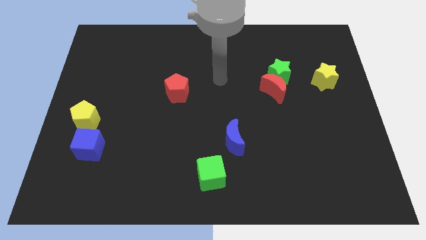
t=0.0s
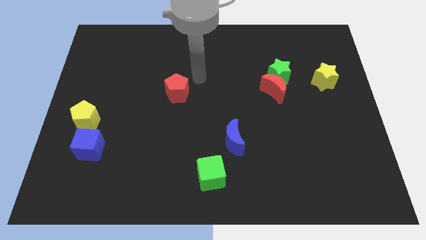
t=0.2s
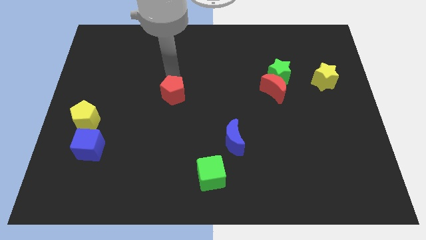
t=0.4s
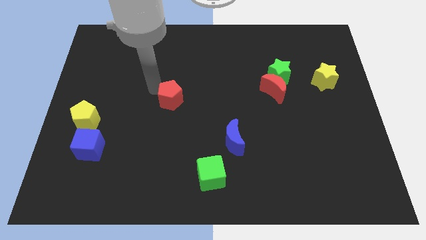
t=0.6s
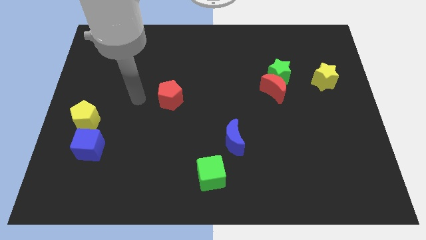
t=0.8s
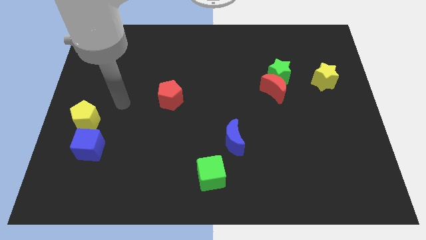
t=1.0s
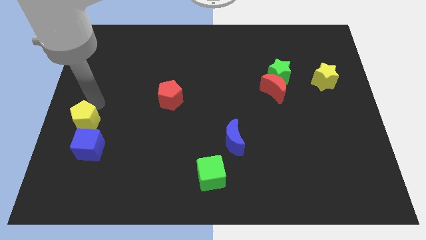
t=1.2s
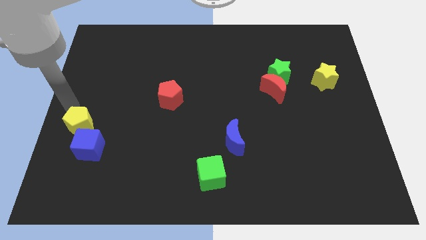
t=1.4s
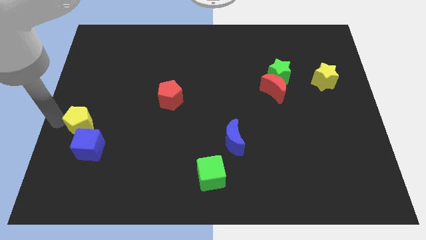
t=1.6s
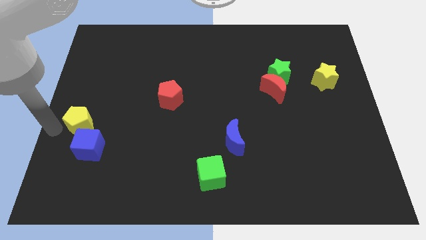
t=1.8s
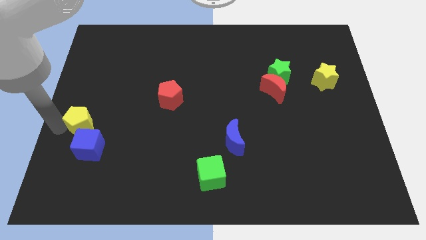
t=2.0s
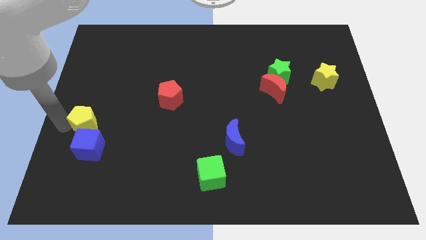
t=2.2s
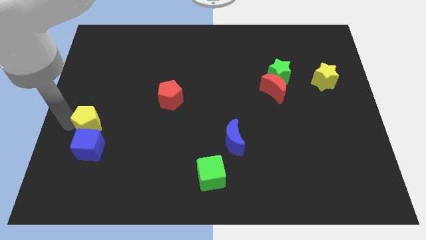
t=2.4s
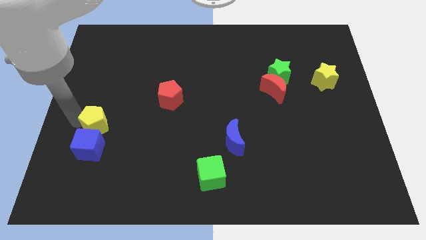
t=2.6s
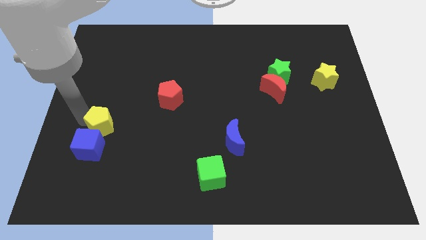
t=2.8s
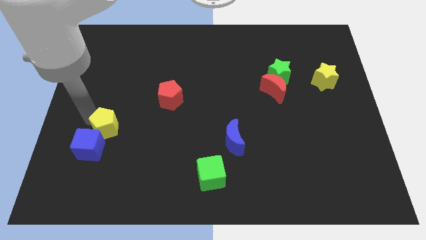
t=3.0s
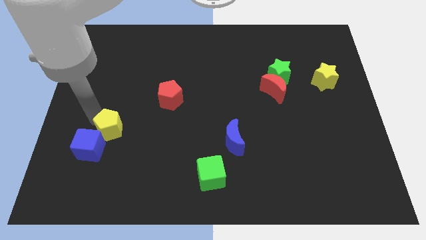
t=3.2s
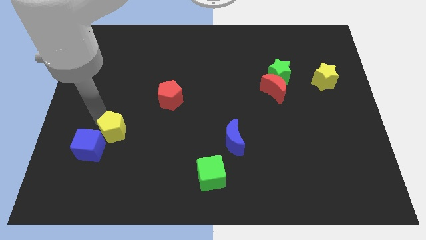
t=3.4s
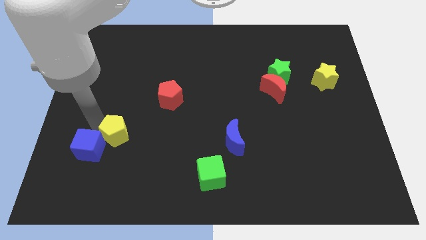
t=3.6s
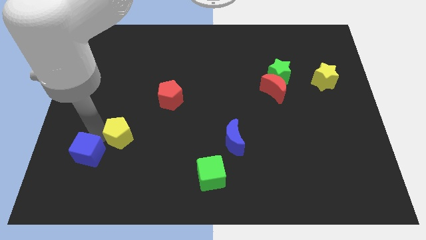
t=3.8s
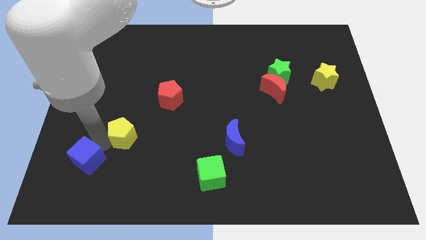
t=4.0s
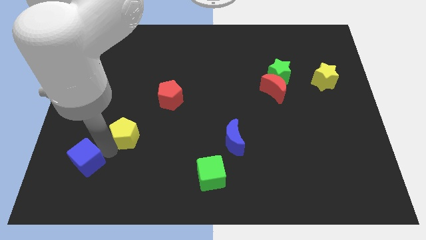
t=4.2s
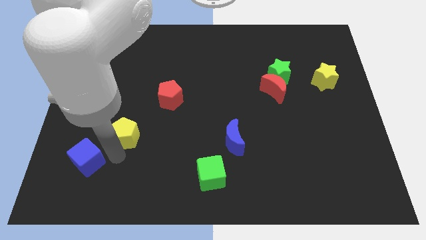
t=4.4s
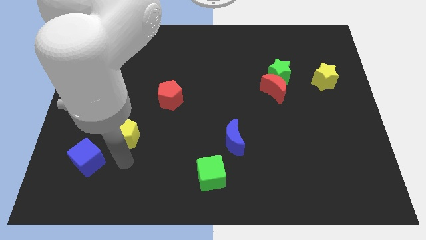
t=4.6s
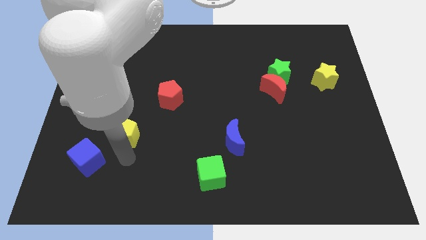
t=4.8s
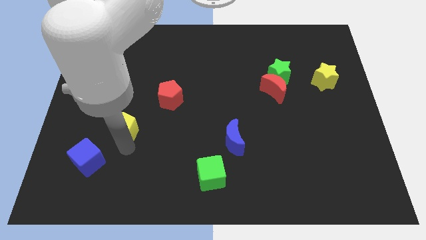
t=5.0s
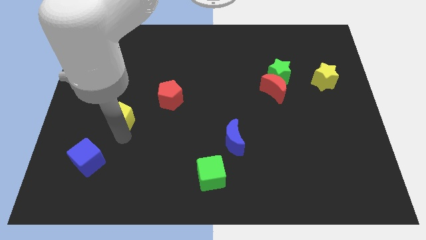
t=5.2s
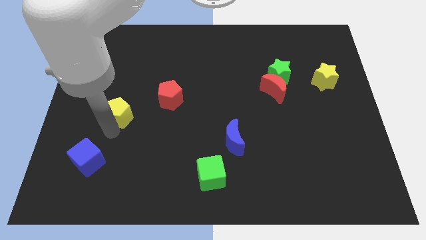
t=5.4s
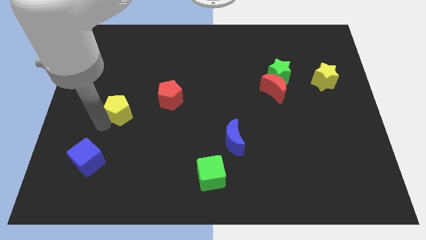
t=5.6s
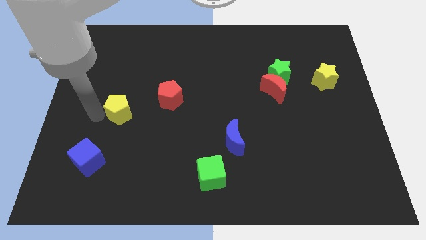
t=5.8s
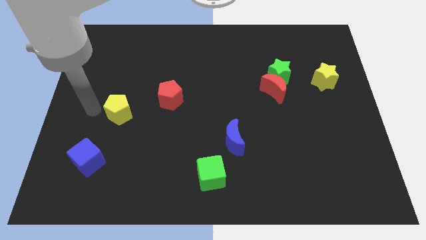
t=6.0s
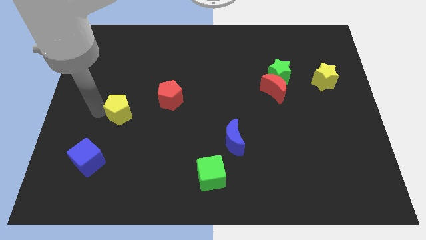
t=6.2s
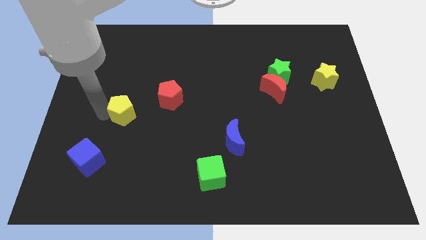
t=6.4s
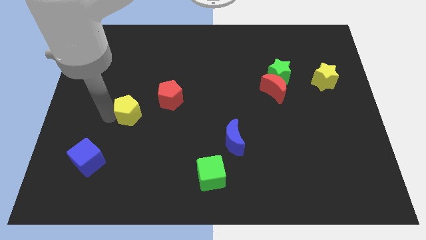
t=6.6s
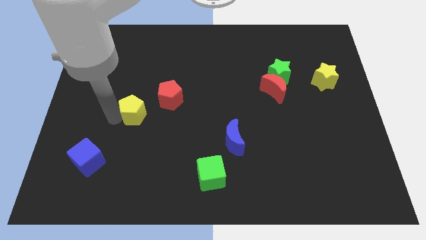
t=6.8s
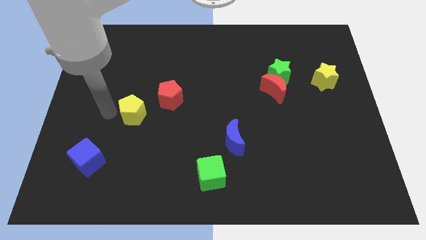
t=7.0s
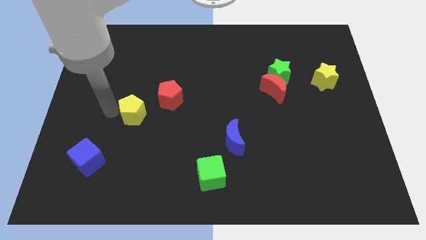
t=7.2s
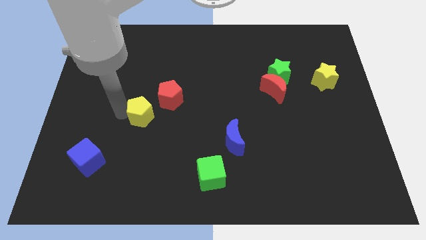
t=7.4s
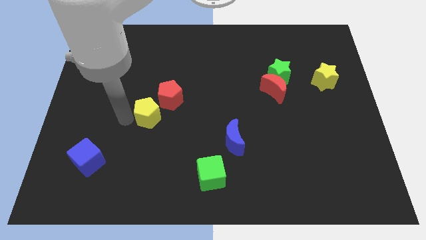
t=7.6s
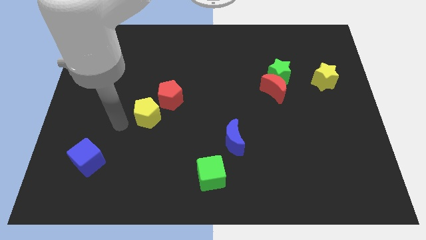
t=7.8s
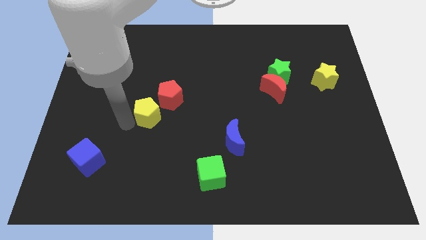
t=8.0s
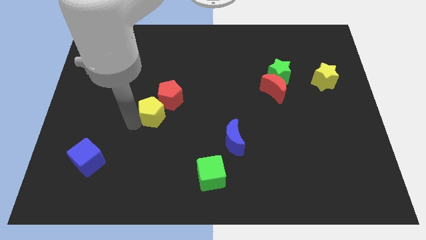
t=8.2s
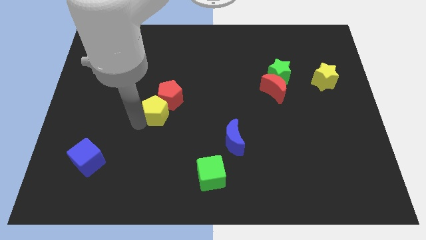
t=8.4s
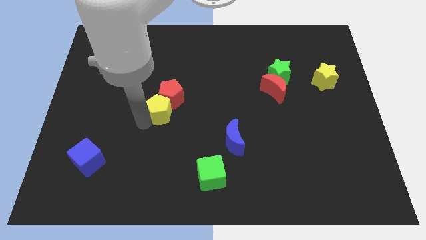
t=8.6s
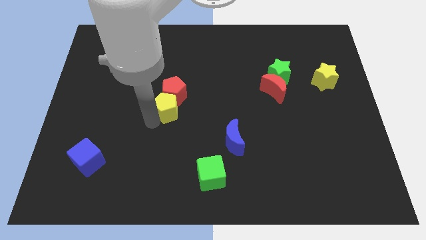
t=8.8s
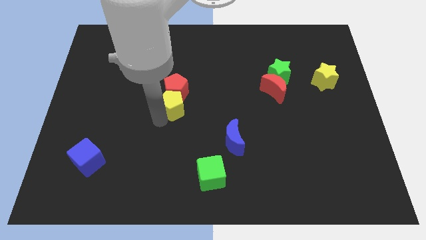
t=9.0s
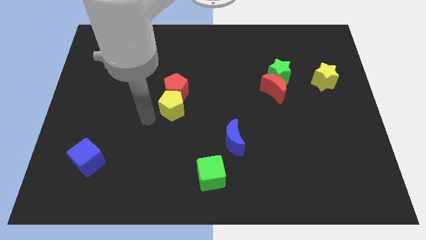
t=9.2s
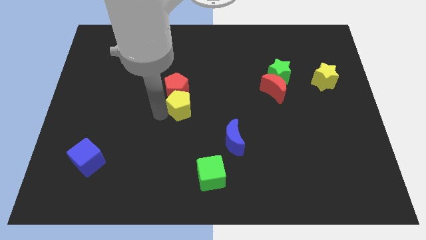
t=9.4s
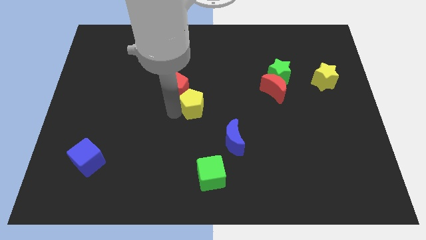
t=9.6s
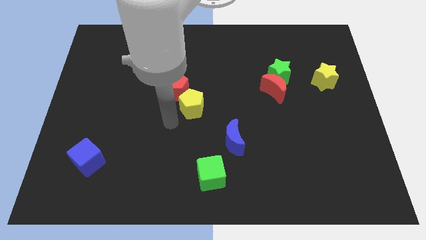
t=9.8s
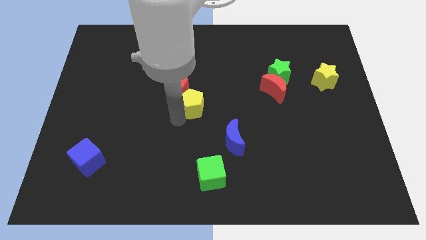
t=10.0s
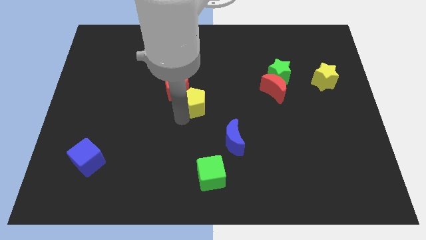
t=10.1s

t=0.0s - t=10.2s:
slide the yellow pentagon right of the red pentagon

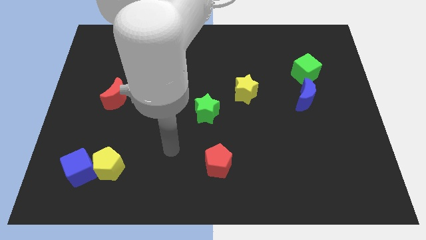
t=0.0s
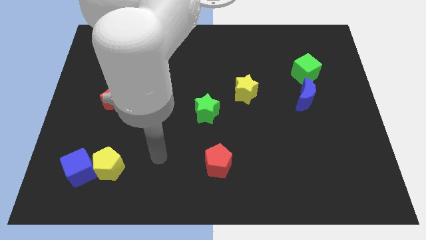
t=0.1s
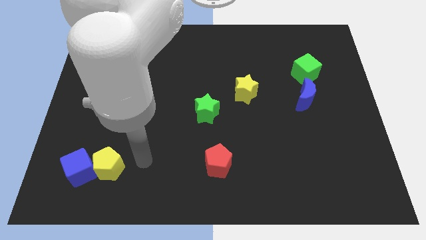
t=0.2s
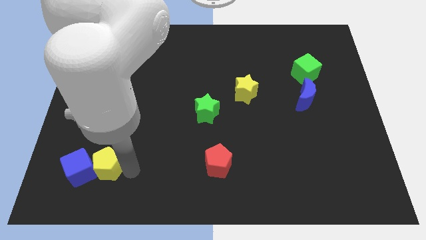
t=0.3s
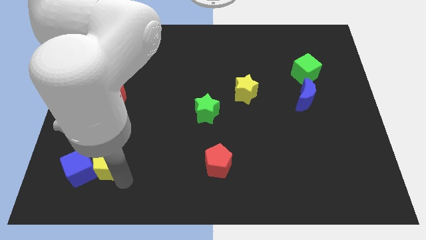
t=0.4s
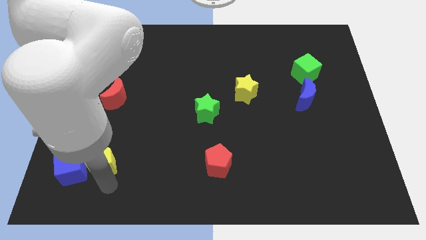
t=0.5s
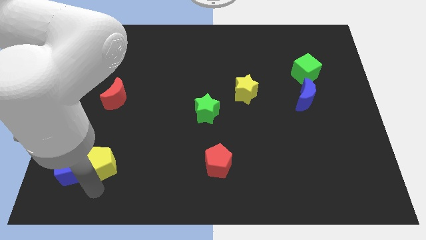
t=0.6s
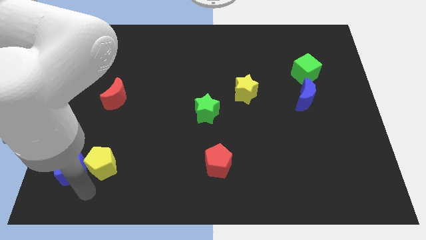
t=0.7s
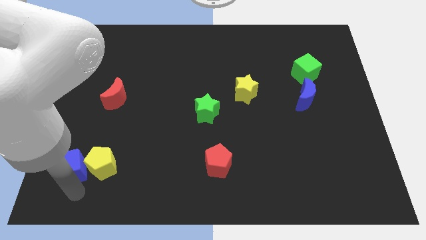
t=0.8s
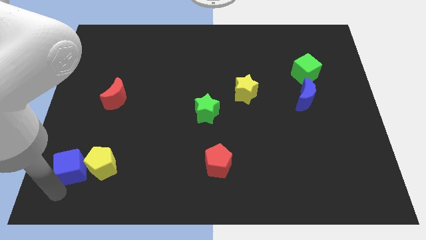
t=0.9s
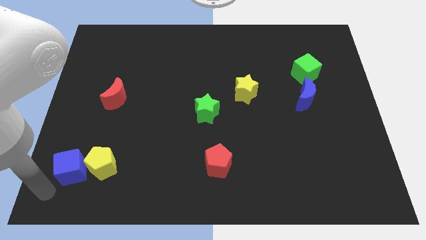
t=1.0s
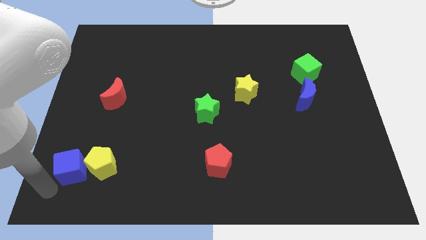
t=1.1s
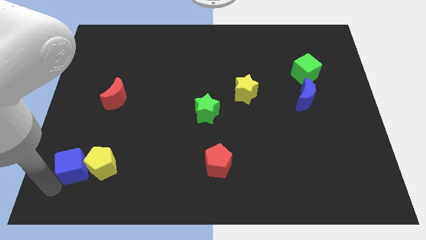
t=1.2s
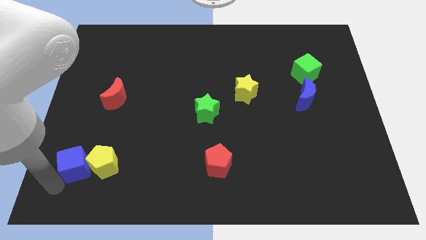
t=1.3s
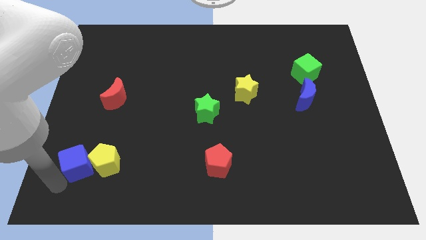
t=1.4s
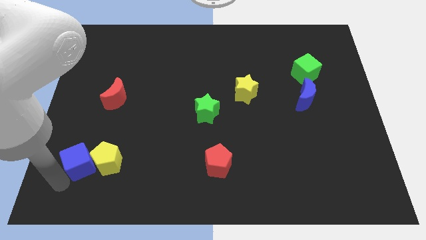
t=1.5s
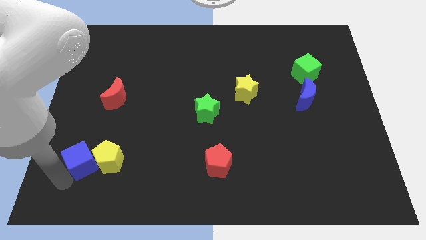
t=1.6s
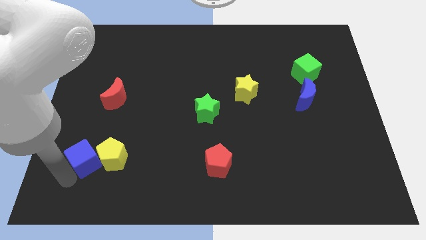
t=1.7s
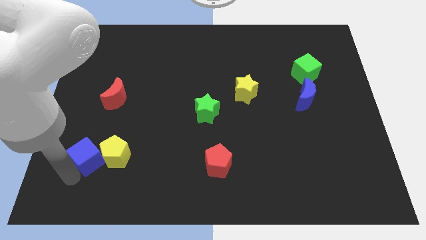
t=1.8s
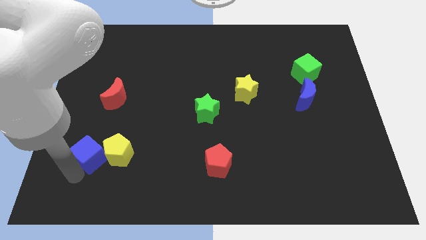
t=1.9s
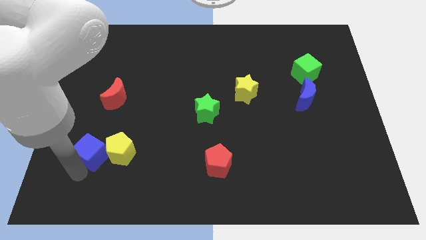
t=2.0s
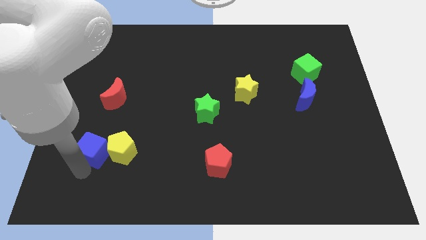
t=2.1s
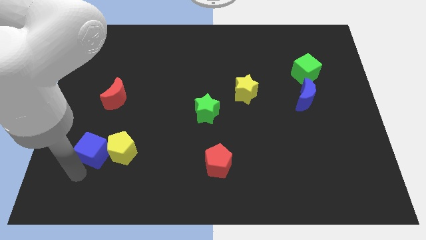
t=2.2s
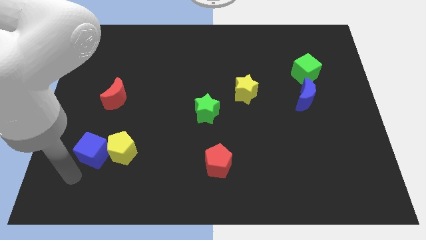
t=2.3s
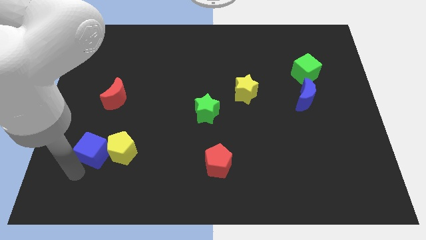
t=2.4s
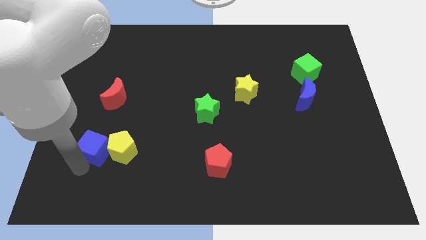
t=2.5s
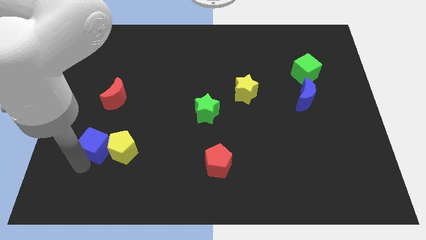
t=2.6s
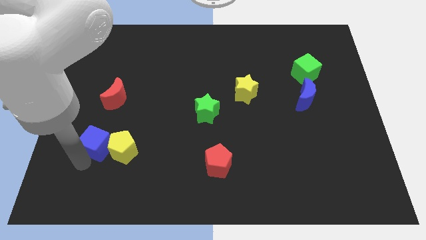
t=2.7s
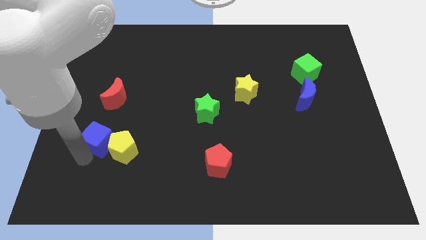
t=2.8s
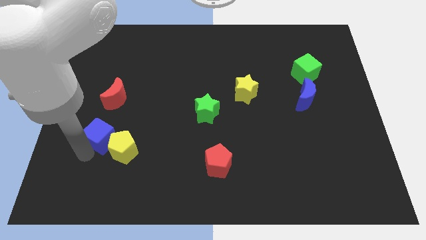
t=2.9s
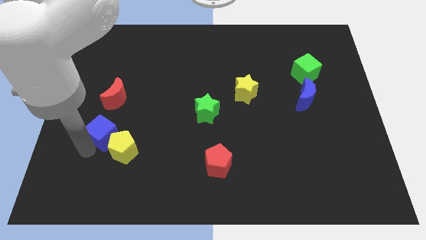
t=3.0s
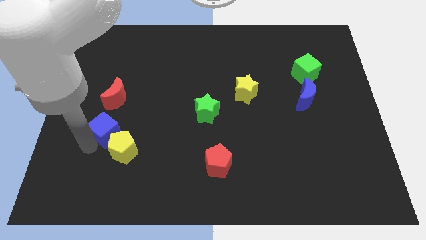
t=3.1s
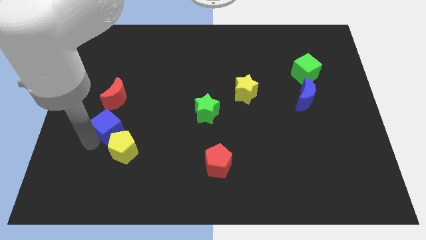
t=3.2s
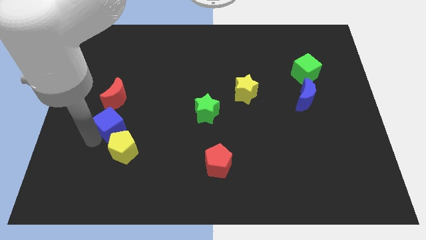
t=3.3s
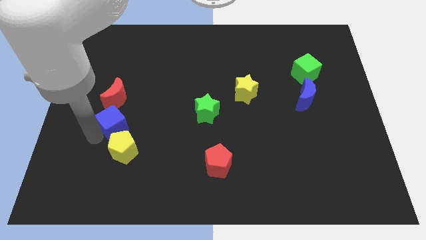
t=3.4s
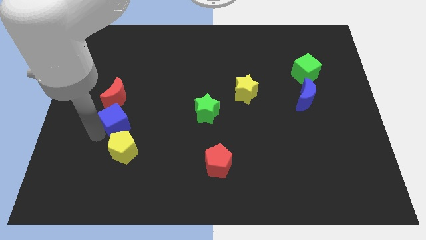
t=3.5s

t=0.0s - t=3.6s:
put the blue cube to the bottom right of the red moon
